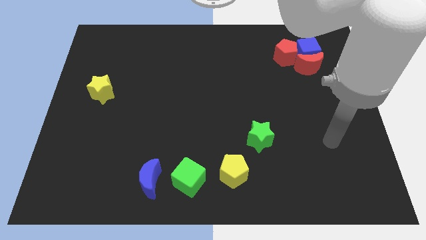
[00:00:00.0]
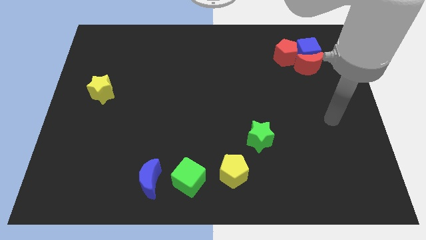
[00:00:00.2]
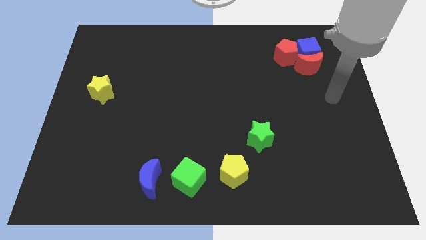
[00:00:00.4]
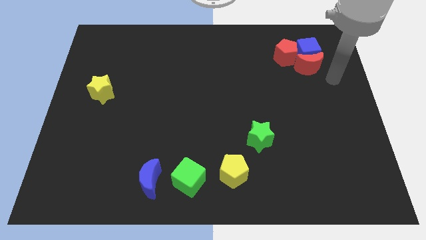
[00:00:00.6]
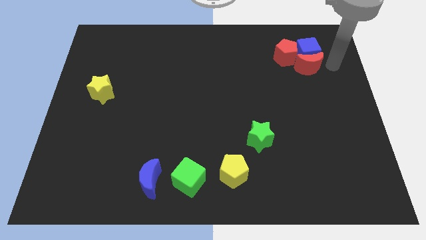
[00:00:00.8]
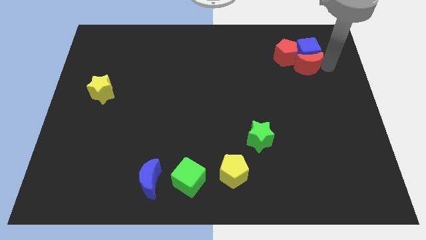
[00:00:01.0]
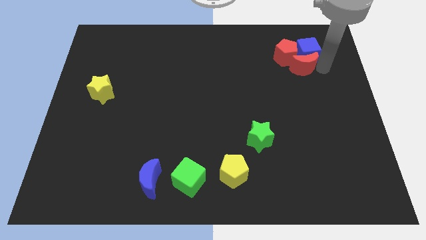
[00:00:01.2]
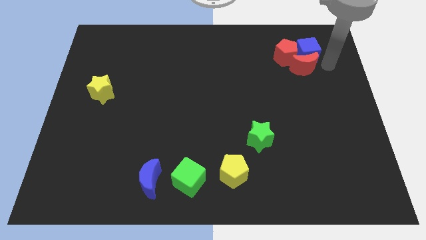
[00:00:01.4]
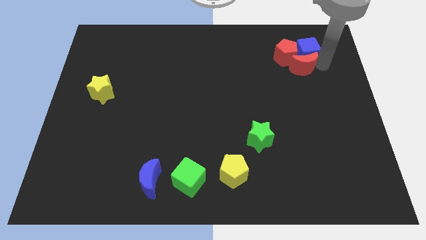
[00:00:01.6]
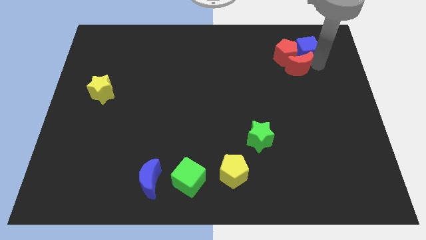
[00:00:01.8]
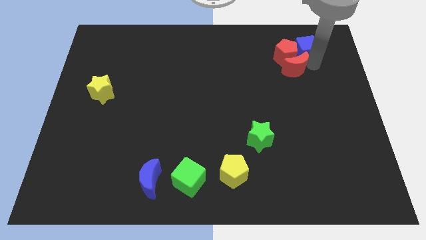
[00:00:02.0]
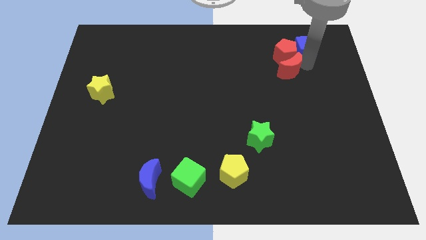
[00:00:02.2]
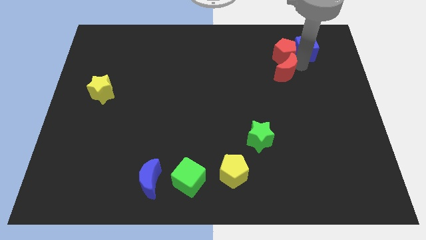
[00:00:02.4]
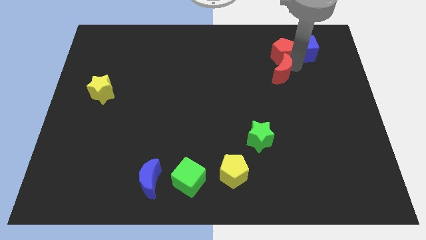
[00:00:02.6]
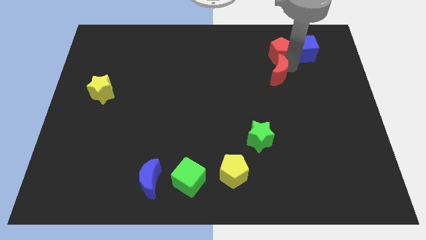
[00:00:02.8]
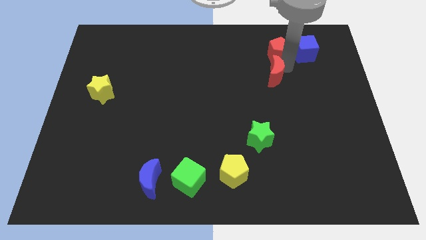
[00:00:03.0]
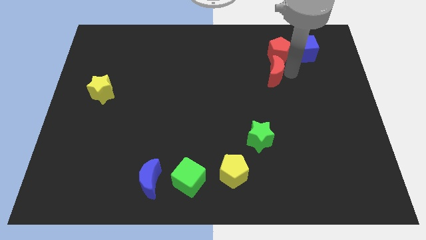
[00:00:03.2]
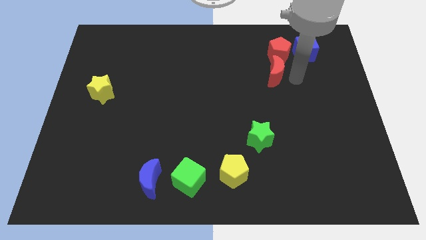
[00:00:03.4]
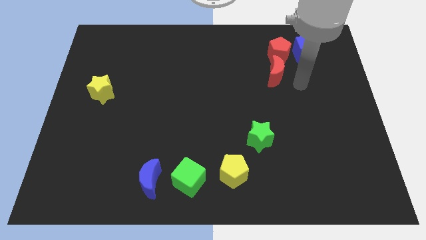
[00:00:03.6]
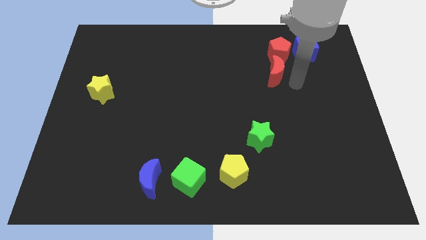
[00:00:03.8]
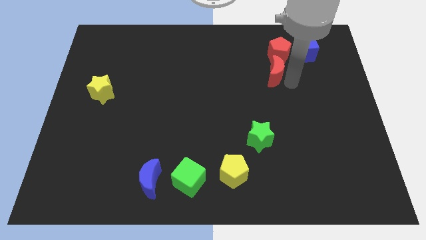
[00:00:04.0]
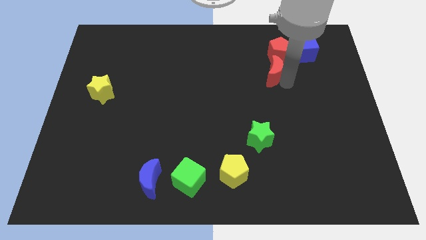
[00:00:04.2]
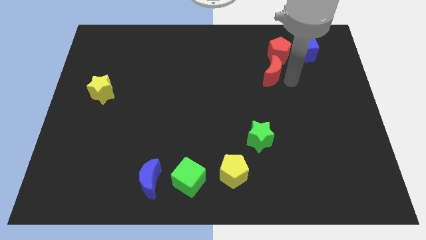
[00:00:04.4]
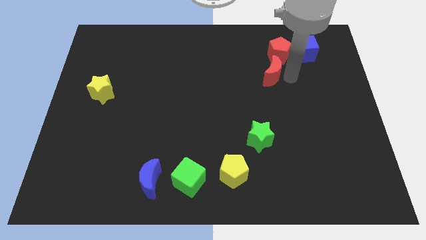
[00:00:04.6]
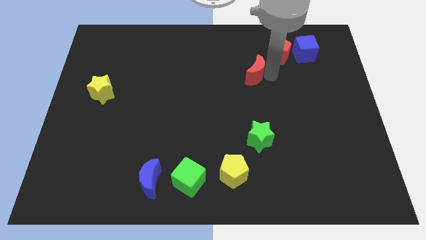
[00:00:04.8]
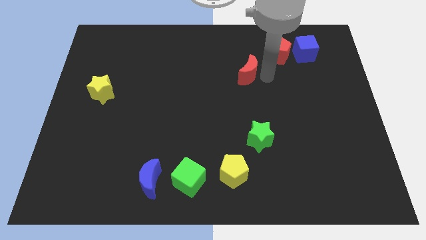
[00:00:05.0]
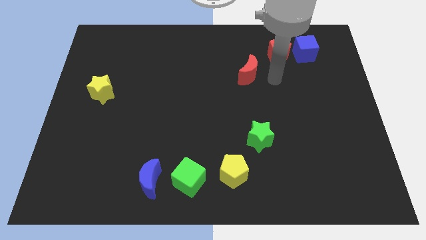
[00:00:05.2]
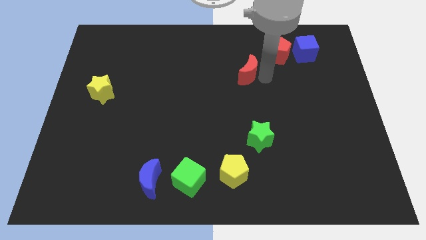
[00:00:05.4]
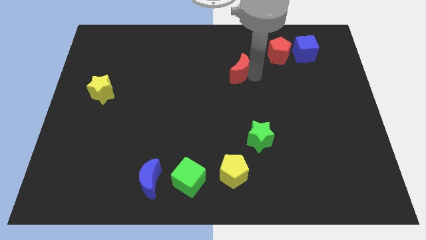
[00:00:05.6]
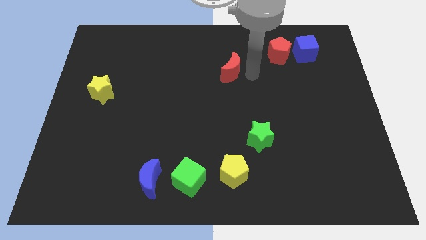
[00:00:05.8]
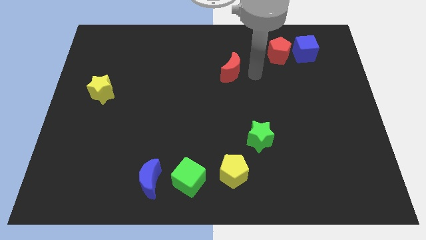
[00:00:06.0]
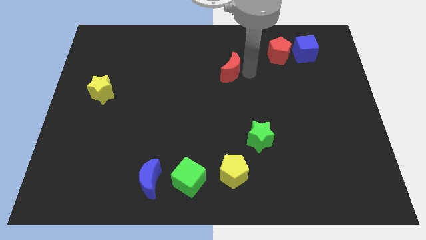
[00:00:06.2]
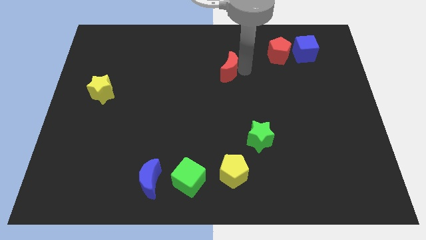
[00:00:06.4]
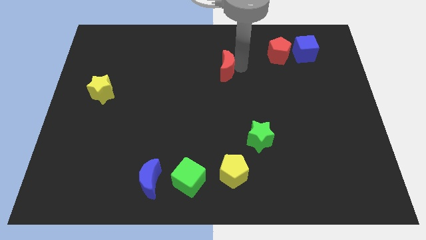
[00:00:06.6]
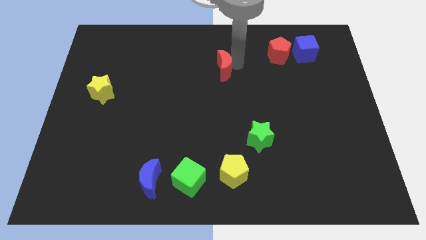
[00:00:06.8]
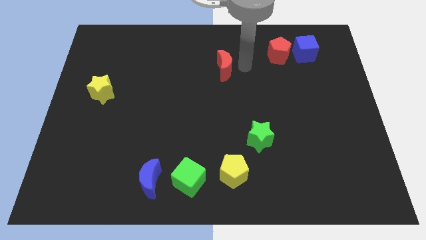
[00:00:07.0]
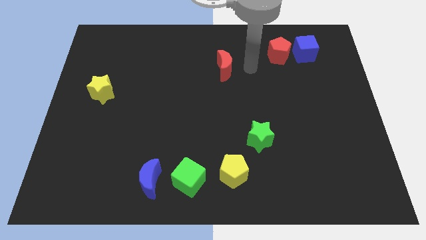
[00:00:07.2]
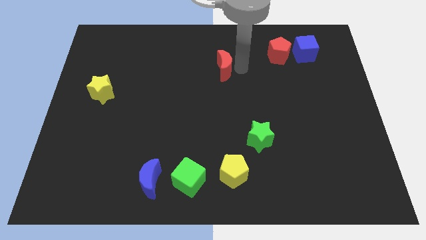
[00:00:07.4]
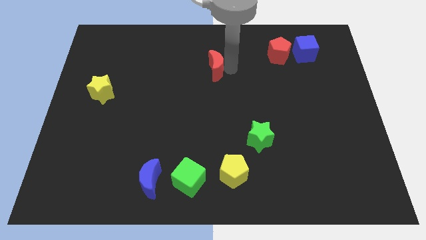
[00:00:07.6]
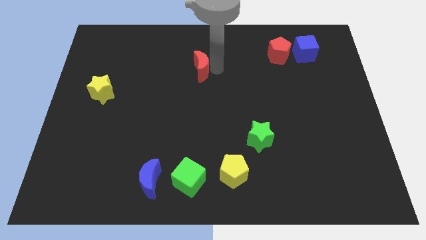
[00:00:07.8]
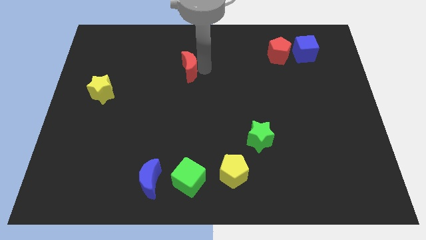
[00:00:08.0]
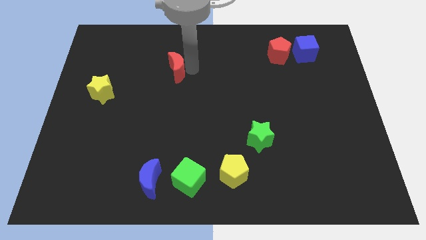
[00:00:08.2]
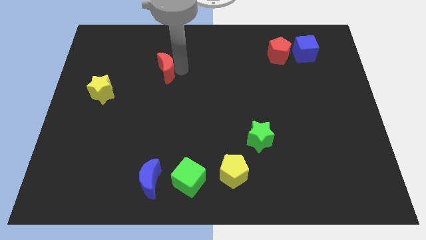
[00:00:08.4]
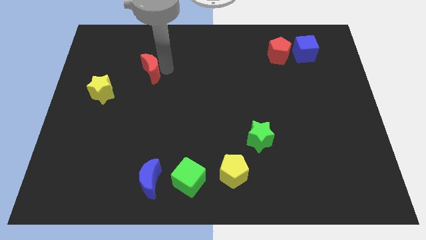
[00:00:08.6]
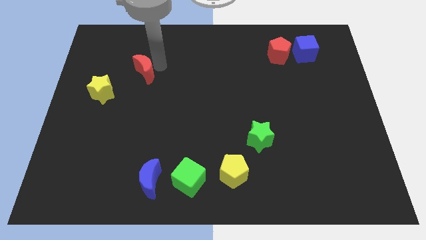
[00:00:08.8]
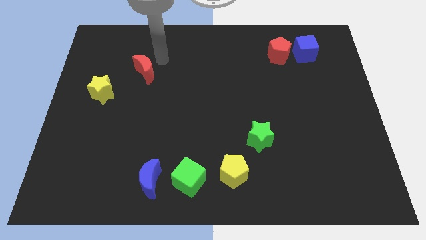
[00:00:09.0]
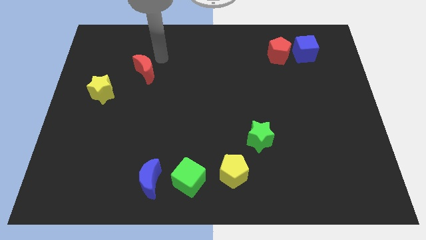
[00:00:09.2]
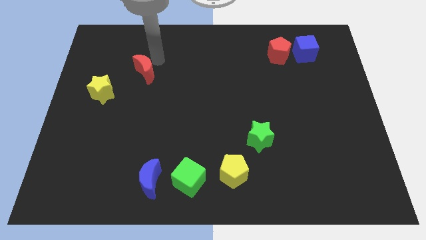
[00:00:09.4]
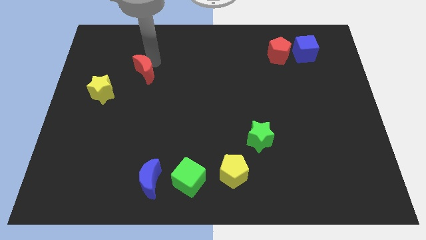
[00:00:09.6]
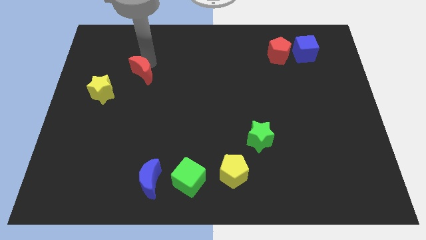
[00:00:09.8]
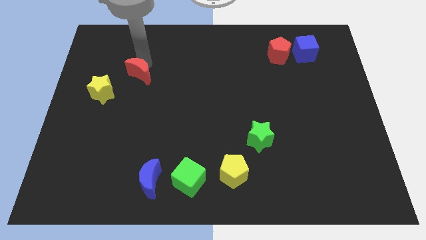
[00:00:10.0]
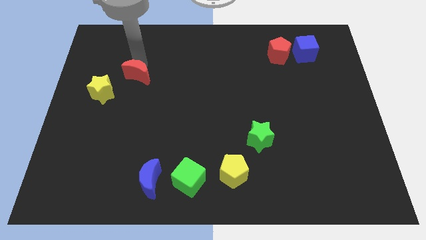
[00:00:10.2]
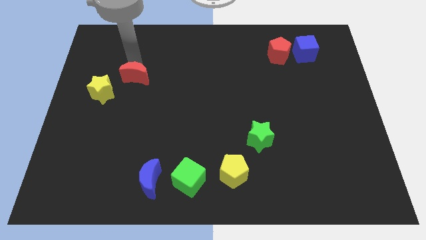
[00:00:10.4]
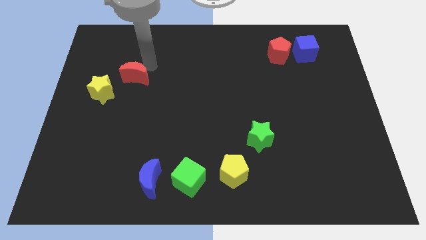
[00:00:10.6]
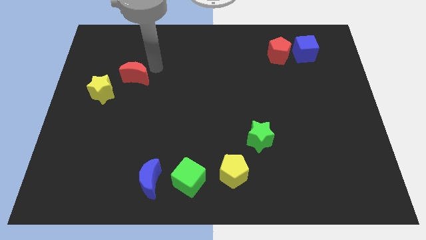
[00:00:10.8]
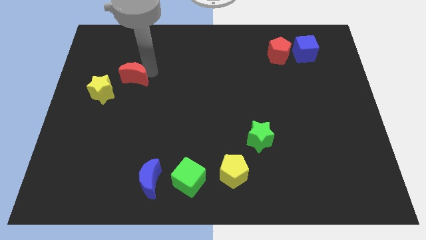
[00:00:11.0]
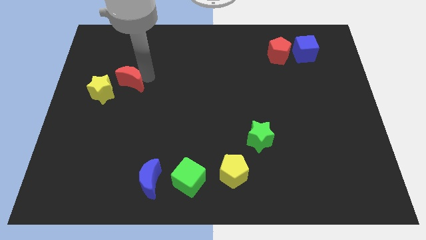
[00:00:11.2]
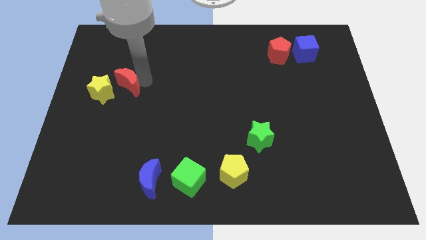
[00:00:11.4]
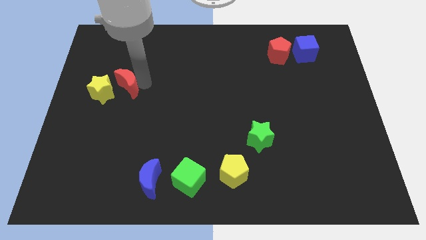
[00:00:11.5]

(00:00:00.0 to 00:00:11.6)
move the red moon towards the yellow star

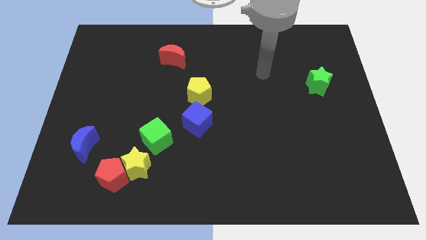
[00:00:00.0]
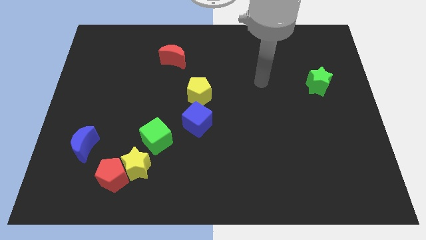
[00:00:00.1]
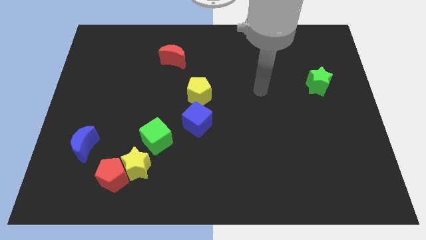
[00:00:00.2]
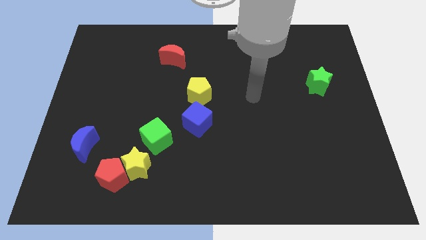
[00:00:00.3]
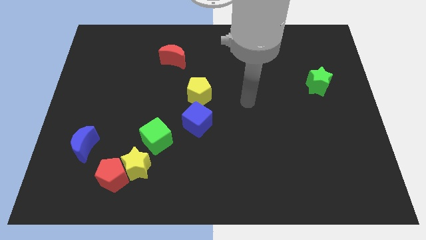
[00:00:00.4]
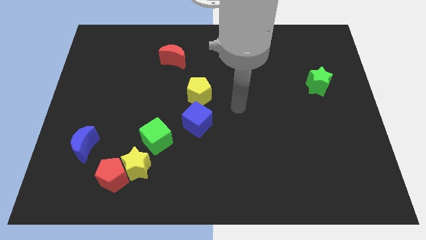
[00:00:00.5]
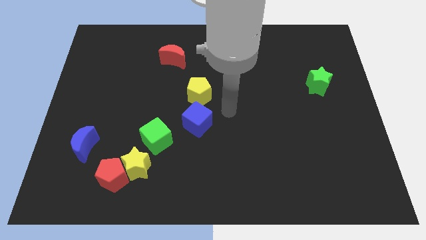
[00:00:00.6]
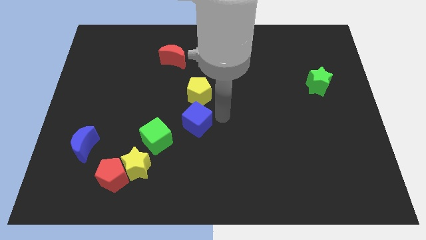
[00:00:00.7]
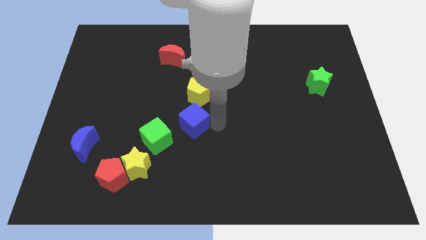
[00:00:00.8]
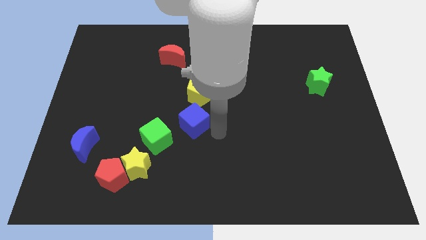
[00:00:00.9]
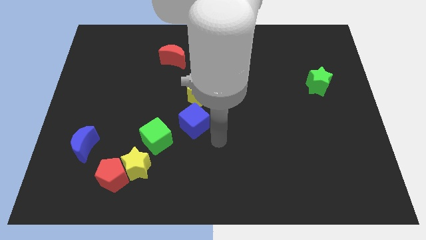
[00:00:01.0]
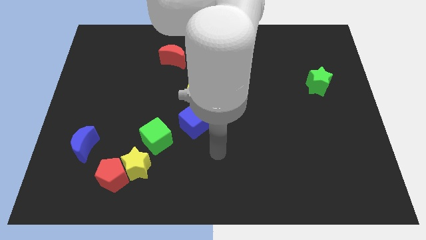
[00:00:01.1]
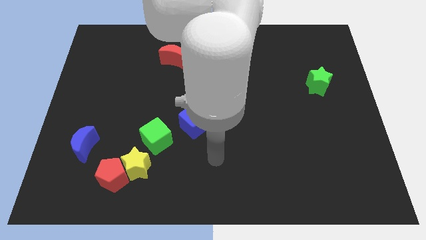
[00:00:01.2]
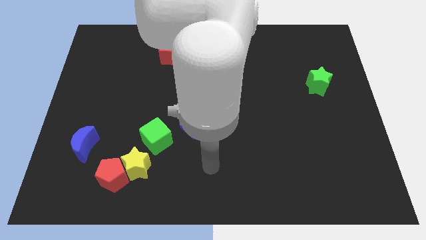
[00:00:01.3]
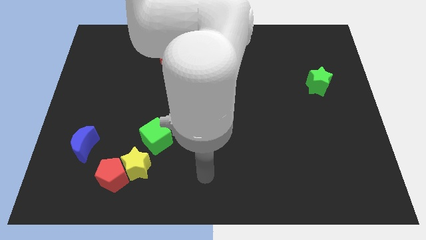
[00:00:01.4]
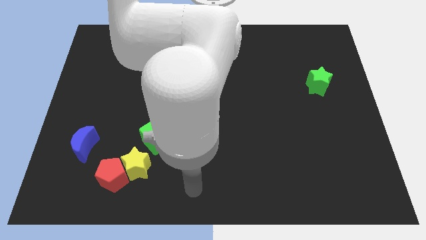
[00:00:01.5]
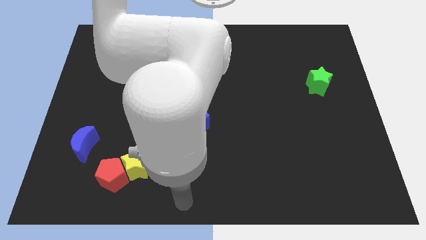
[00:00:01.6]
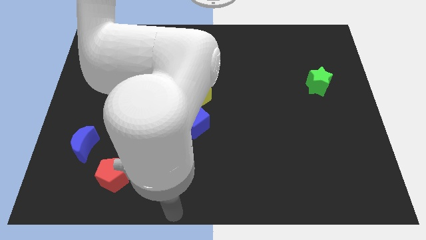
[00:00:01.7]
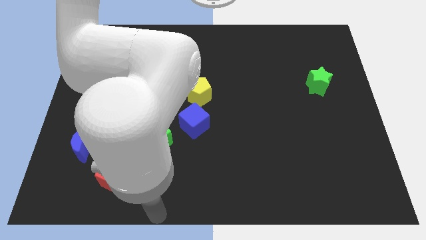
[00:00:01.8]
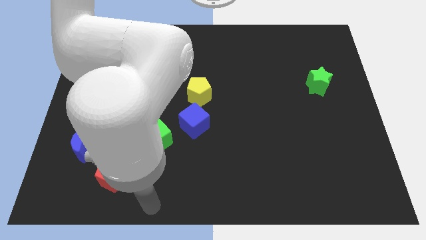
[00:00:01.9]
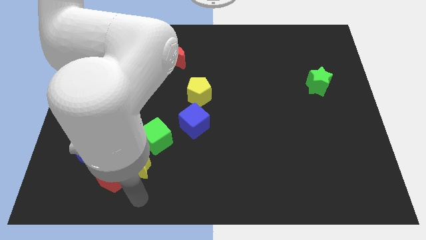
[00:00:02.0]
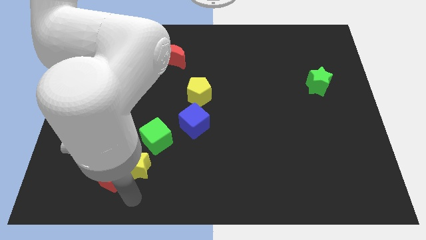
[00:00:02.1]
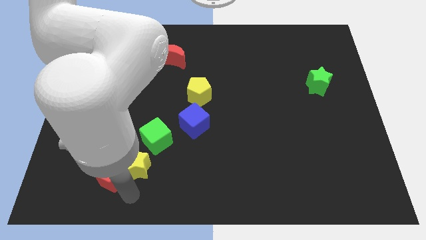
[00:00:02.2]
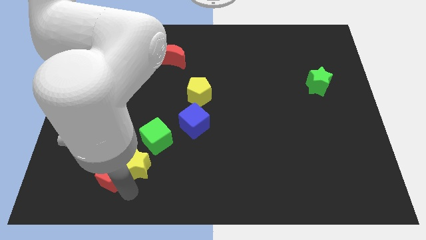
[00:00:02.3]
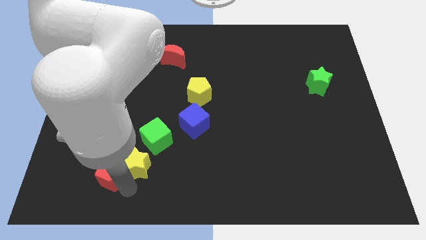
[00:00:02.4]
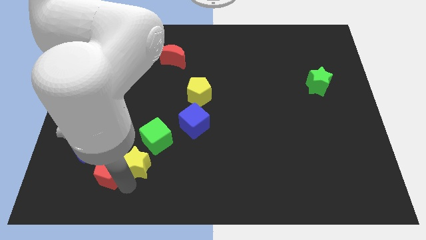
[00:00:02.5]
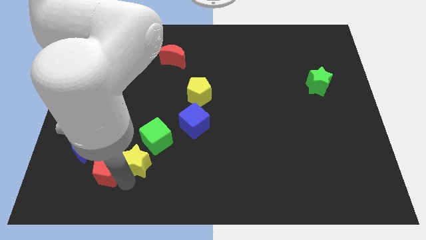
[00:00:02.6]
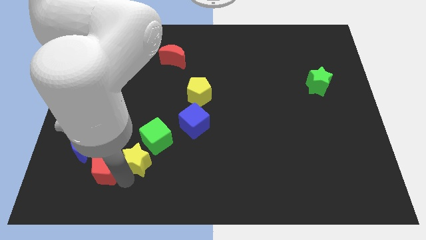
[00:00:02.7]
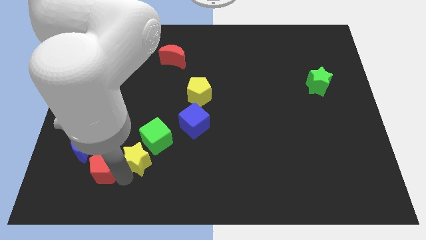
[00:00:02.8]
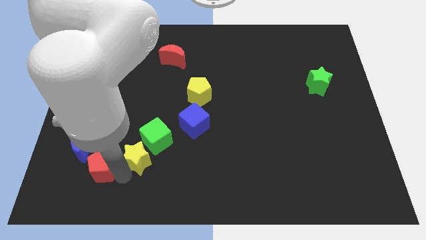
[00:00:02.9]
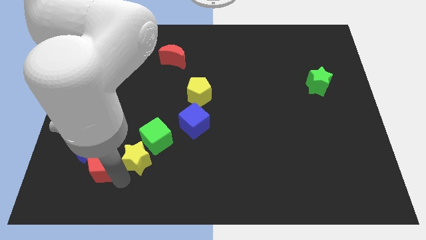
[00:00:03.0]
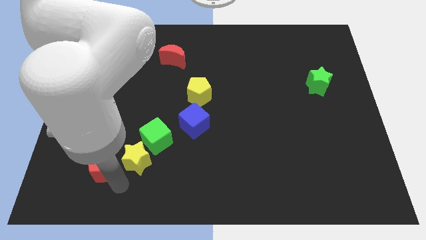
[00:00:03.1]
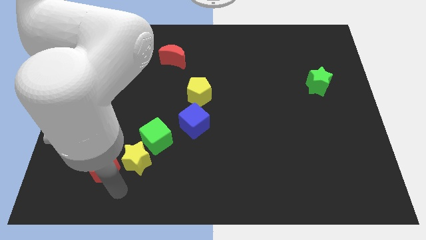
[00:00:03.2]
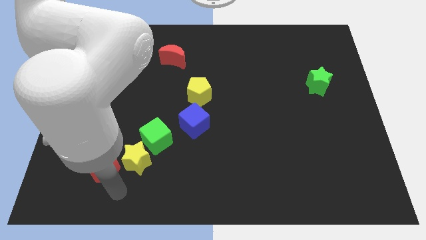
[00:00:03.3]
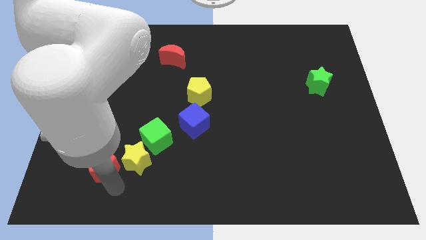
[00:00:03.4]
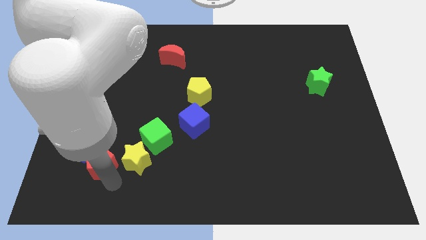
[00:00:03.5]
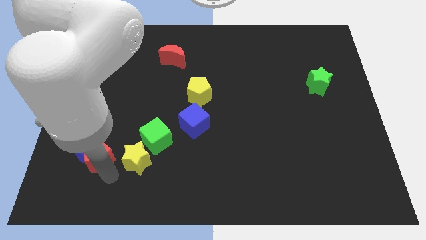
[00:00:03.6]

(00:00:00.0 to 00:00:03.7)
put the red pentagon close to the blue moon
